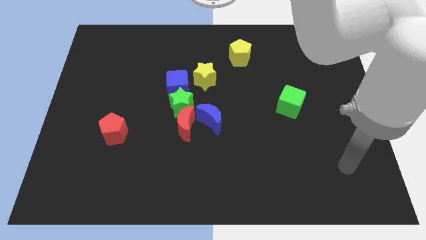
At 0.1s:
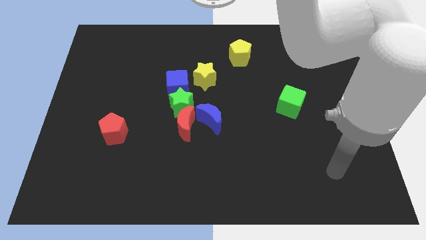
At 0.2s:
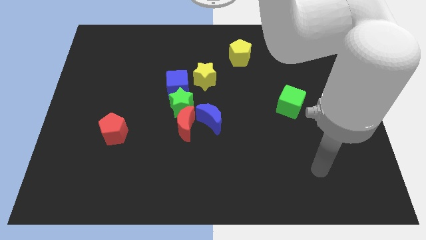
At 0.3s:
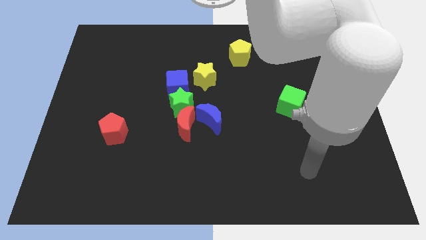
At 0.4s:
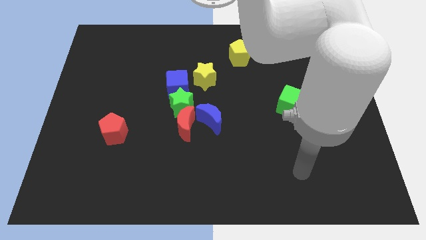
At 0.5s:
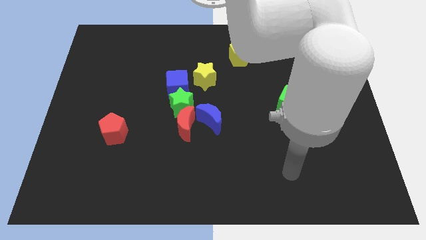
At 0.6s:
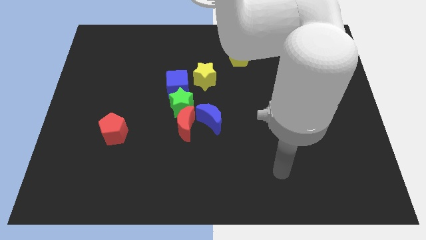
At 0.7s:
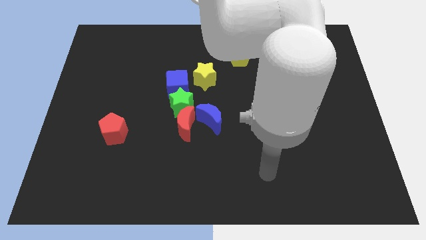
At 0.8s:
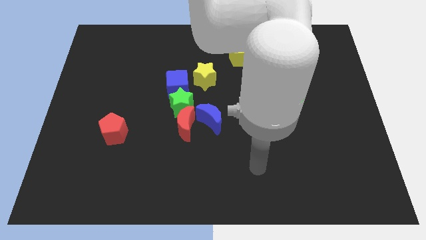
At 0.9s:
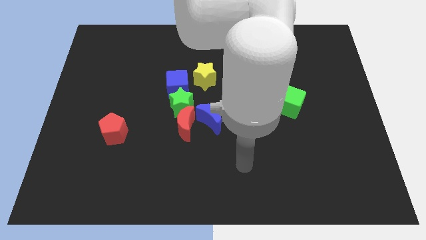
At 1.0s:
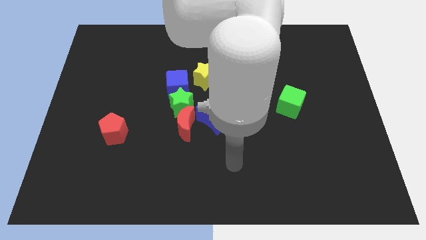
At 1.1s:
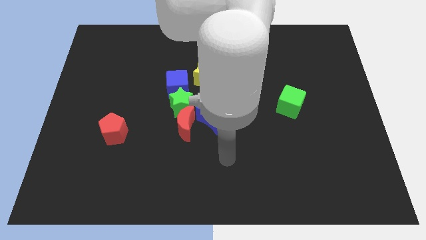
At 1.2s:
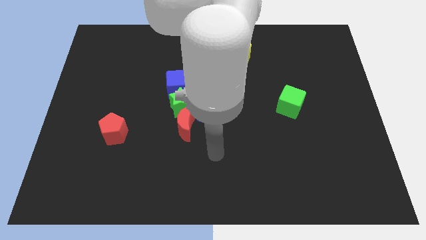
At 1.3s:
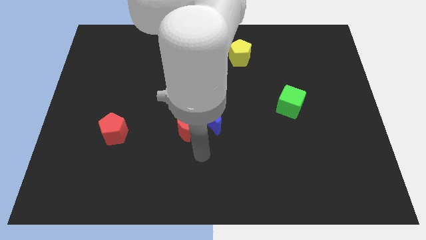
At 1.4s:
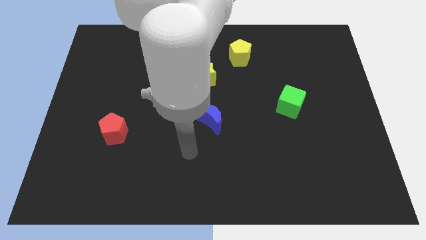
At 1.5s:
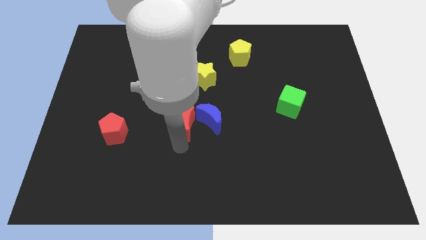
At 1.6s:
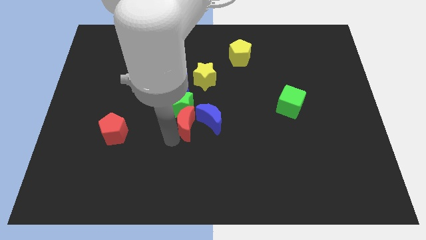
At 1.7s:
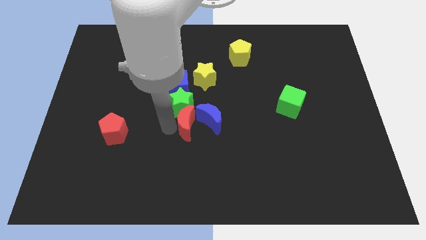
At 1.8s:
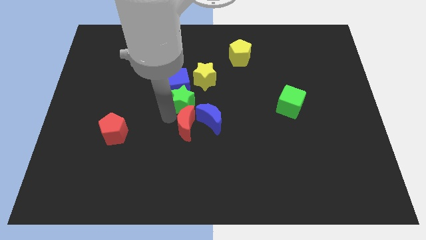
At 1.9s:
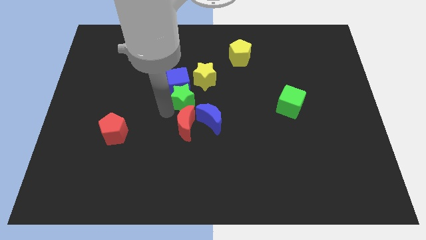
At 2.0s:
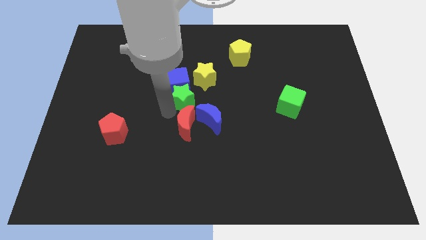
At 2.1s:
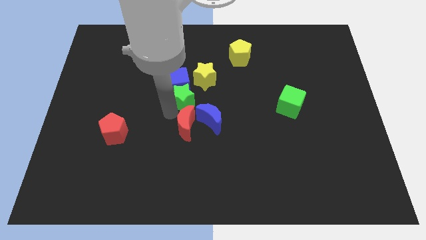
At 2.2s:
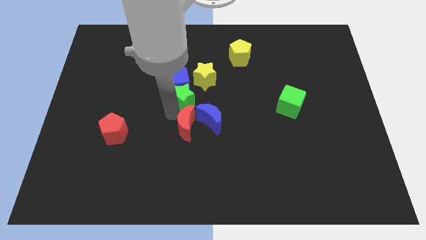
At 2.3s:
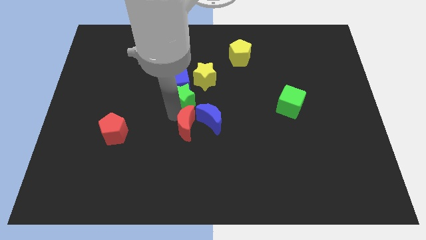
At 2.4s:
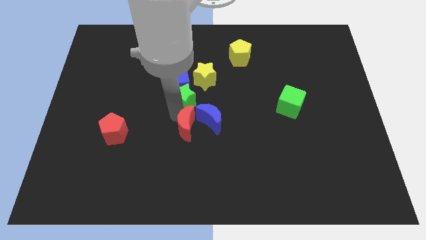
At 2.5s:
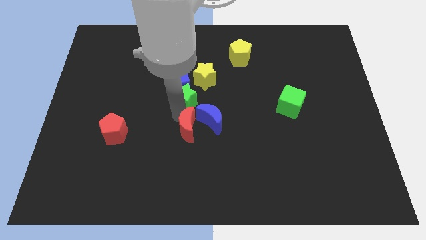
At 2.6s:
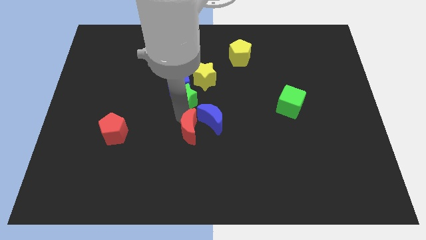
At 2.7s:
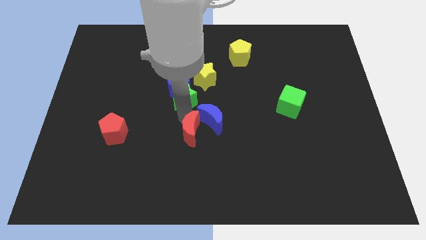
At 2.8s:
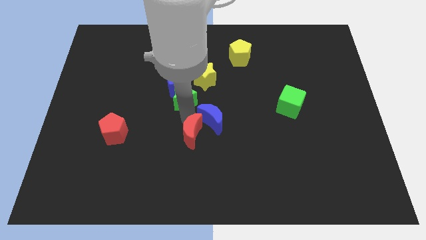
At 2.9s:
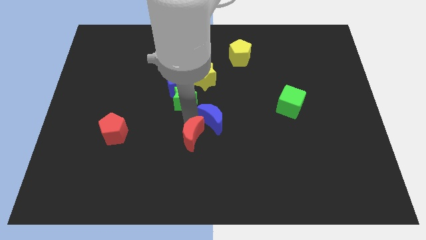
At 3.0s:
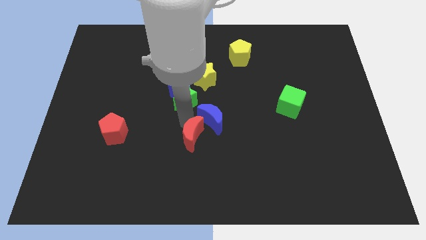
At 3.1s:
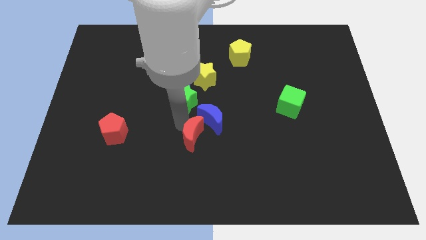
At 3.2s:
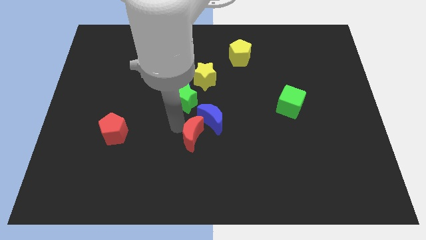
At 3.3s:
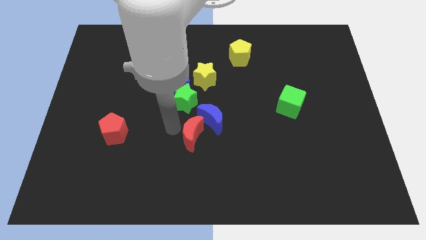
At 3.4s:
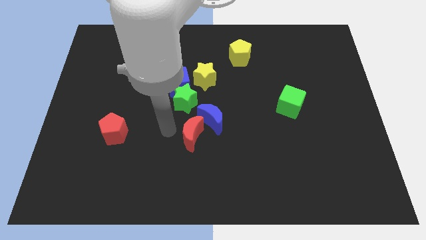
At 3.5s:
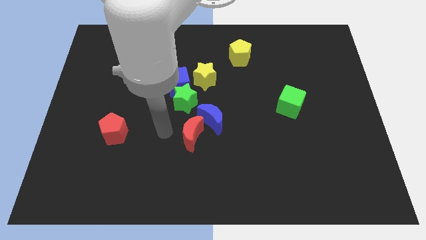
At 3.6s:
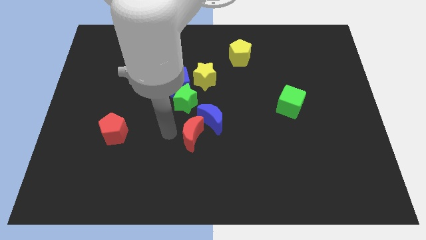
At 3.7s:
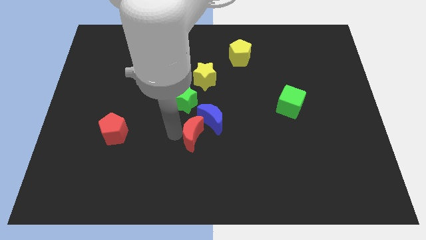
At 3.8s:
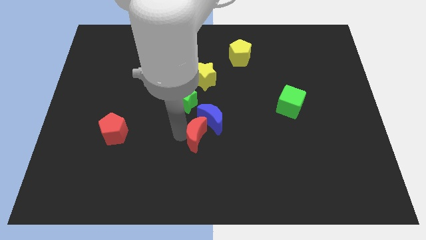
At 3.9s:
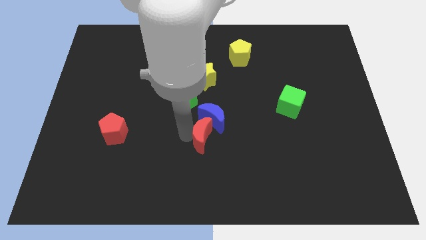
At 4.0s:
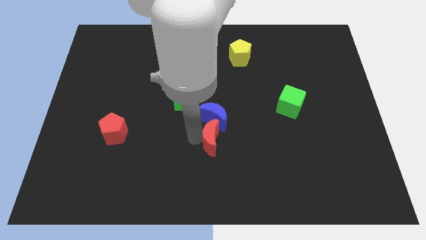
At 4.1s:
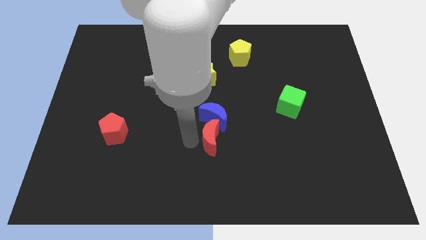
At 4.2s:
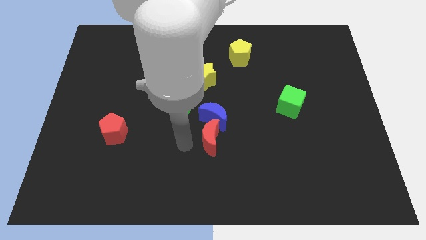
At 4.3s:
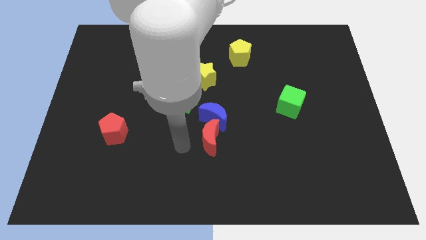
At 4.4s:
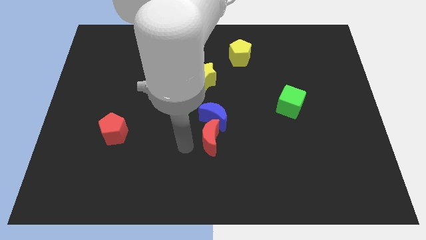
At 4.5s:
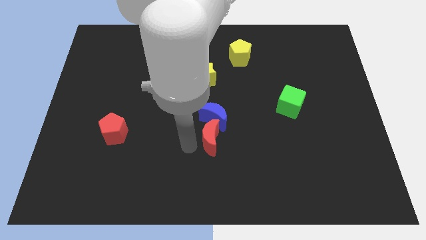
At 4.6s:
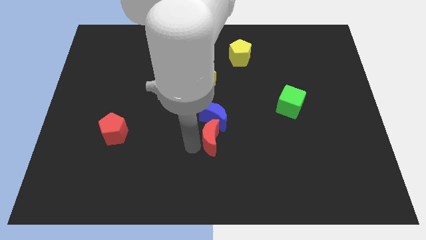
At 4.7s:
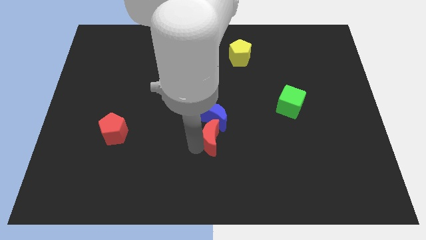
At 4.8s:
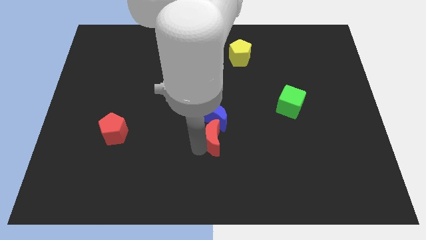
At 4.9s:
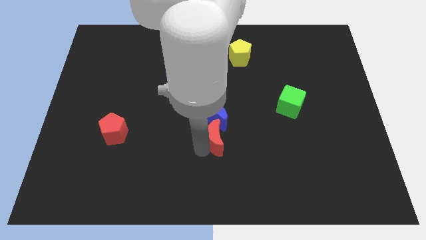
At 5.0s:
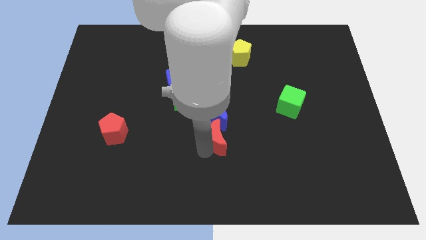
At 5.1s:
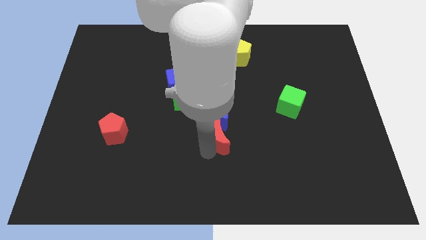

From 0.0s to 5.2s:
move the red moon slightly to the right

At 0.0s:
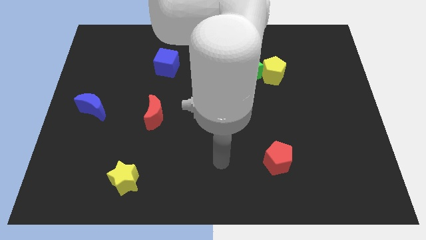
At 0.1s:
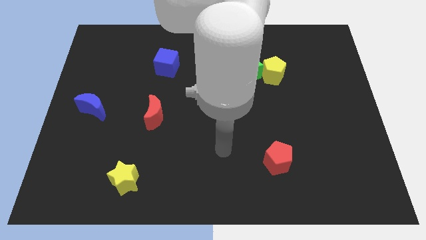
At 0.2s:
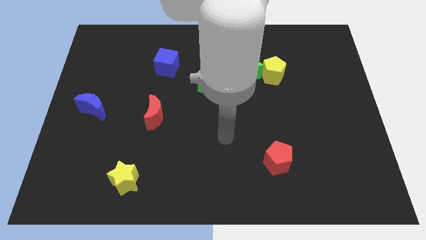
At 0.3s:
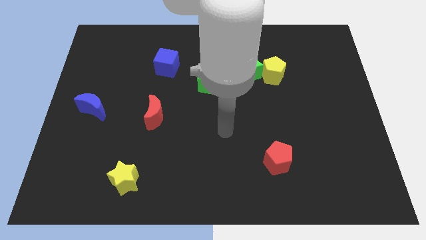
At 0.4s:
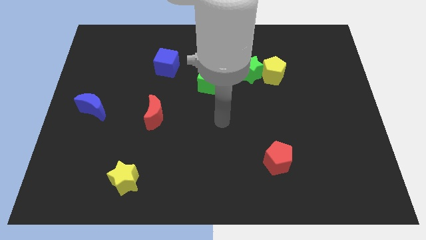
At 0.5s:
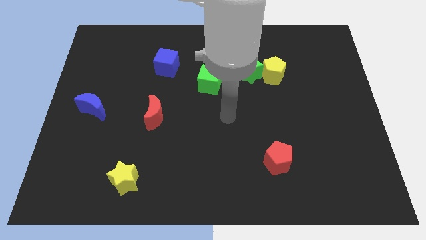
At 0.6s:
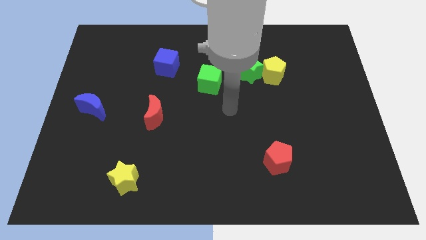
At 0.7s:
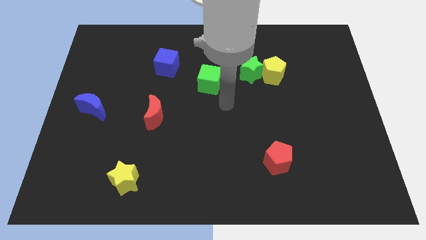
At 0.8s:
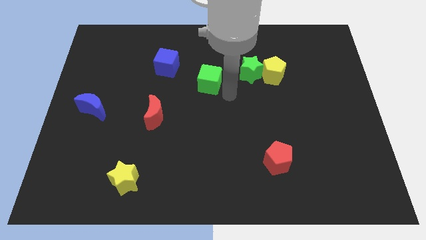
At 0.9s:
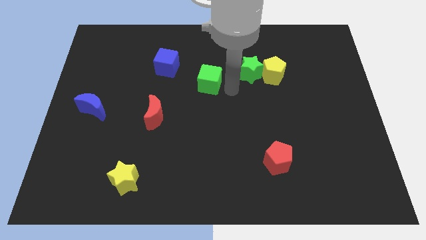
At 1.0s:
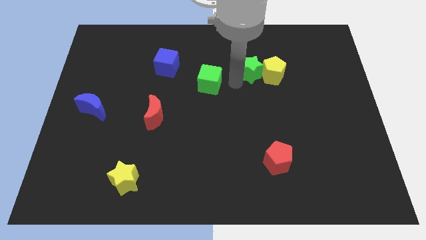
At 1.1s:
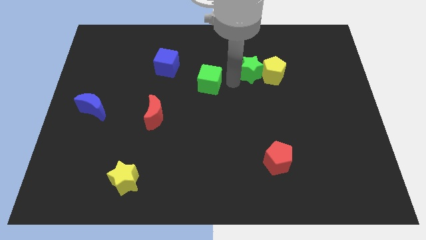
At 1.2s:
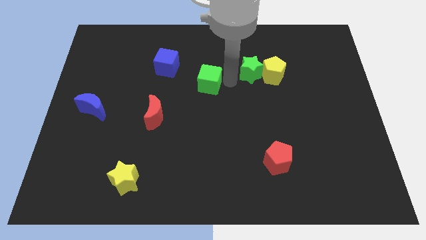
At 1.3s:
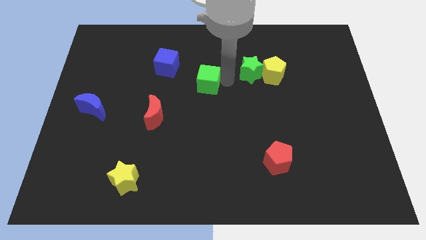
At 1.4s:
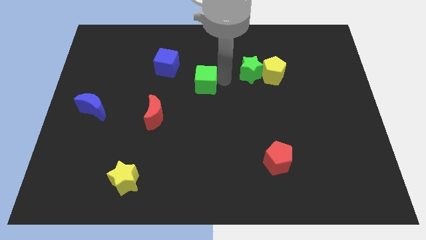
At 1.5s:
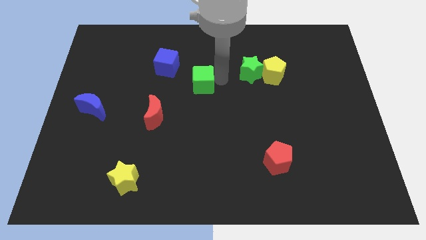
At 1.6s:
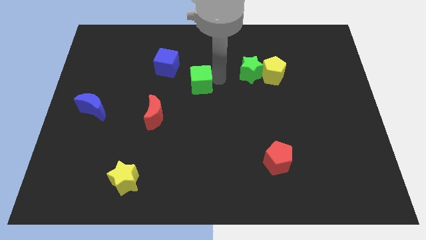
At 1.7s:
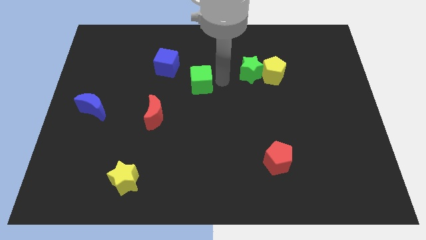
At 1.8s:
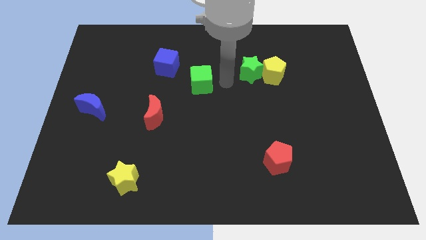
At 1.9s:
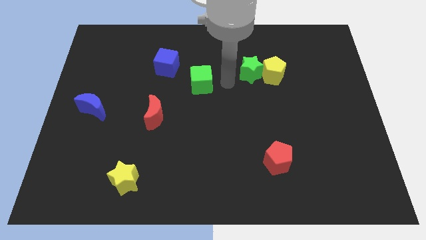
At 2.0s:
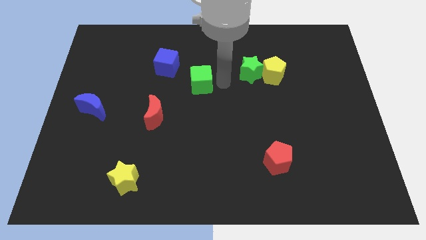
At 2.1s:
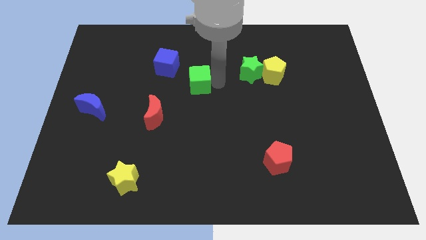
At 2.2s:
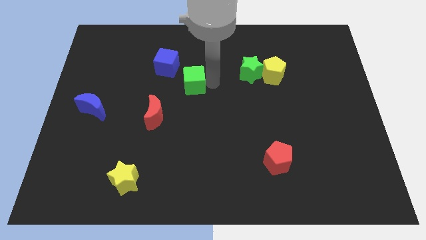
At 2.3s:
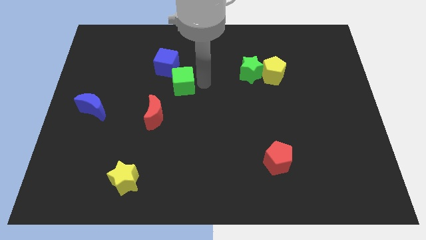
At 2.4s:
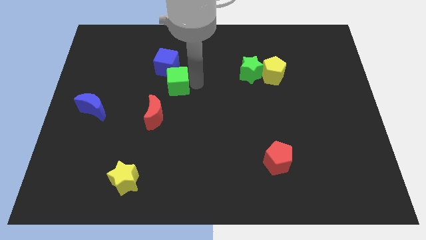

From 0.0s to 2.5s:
push the green cube a little to the left

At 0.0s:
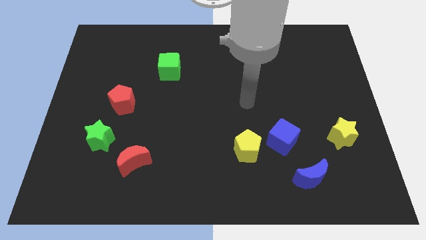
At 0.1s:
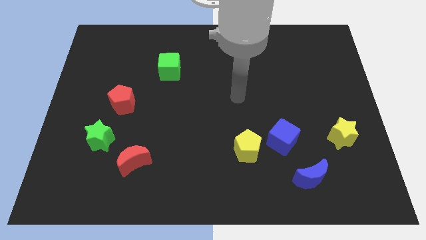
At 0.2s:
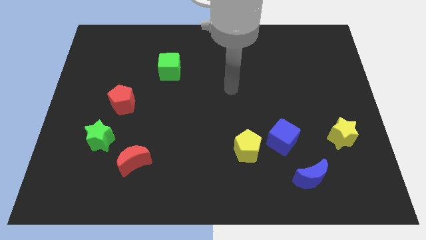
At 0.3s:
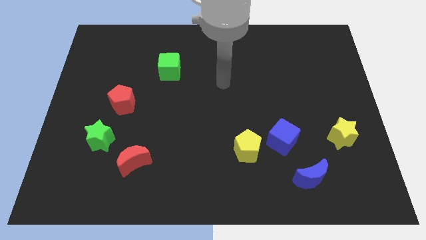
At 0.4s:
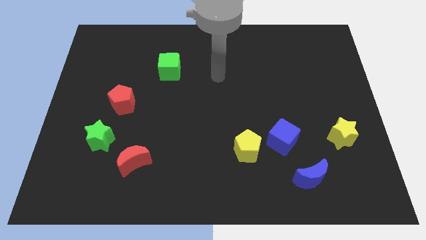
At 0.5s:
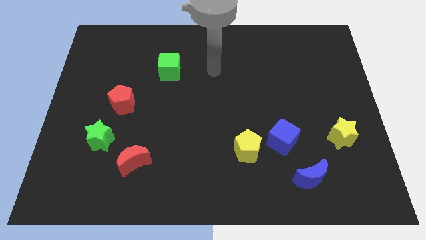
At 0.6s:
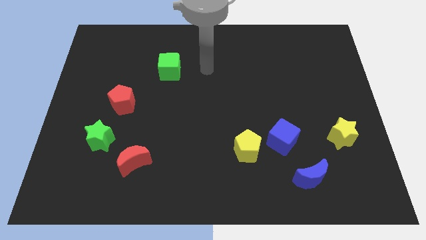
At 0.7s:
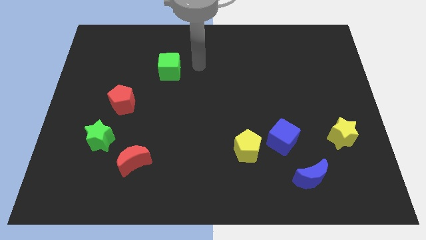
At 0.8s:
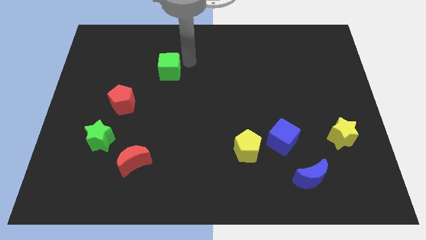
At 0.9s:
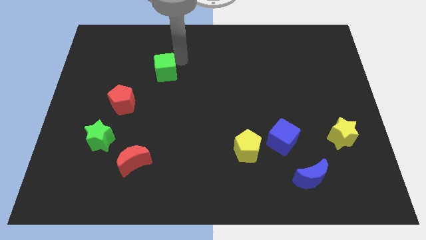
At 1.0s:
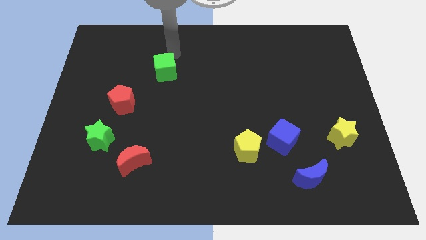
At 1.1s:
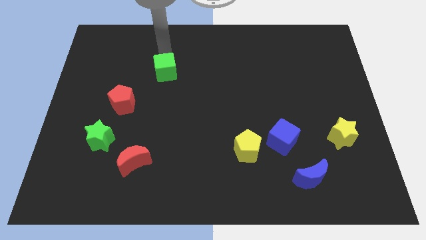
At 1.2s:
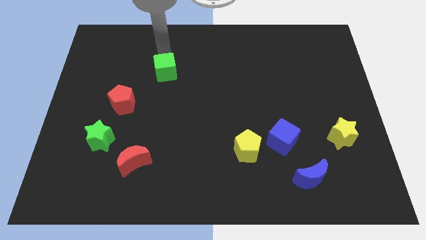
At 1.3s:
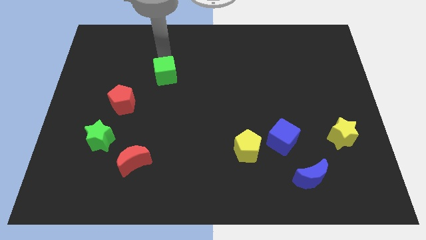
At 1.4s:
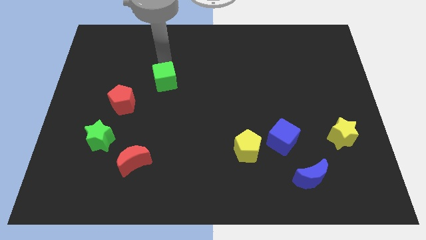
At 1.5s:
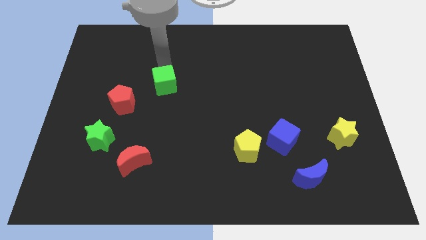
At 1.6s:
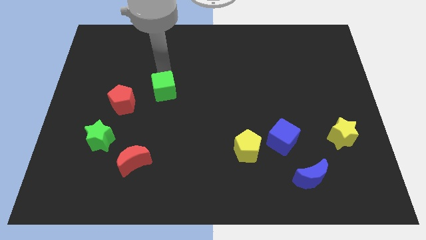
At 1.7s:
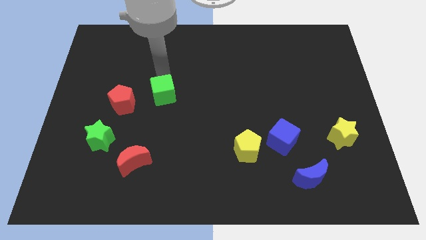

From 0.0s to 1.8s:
slide the green cube down a little bit
